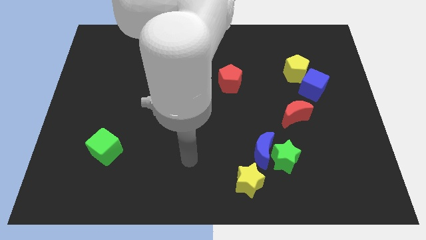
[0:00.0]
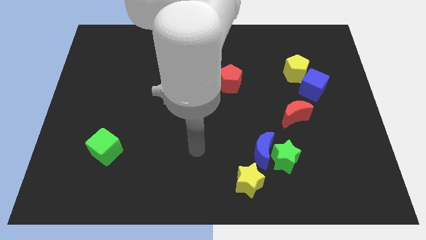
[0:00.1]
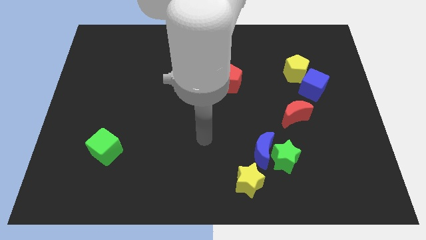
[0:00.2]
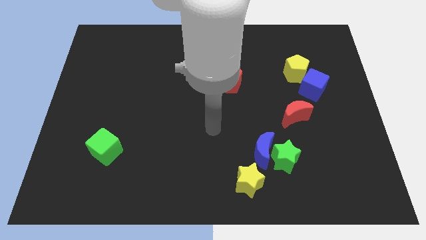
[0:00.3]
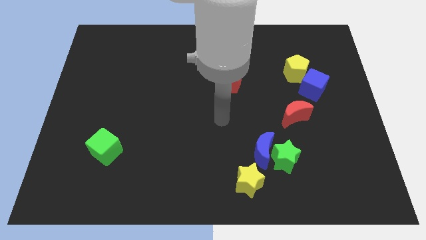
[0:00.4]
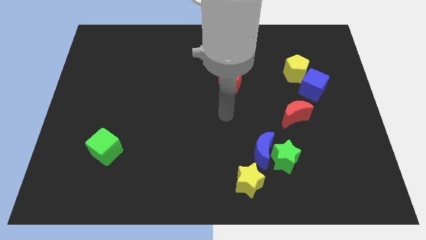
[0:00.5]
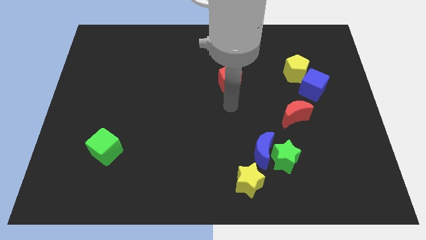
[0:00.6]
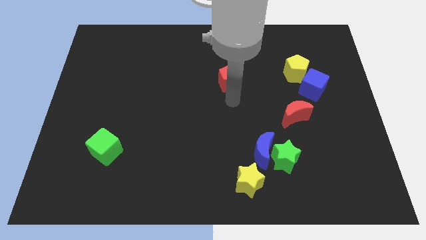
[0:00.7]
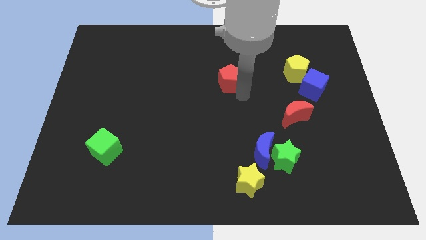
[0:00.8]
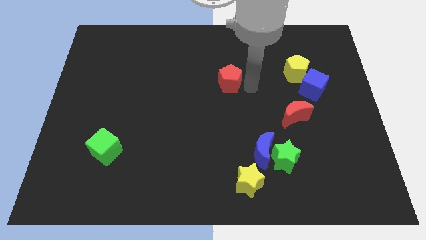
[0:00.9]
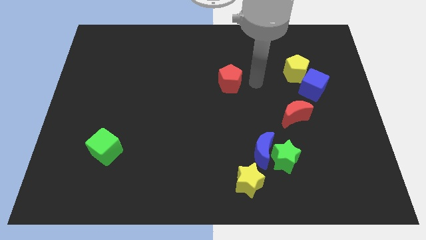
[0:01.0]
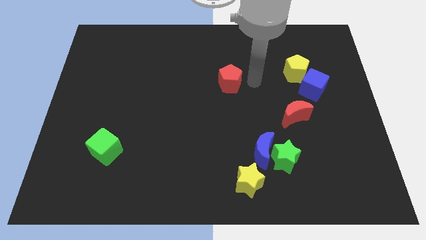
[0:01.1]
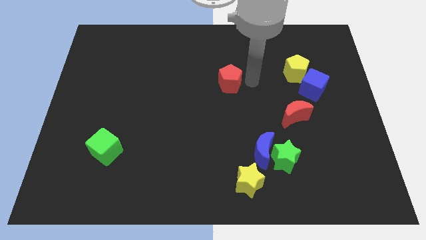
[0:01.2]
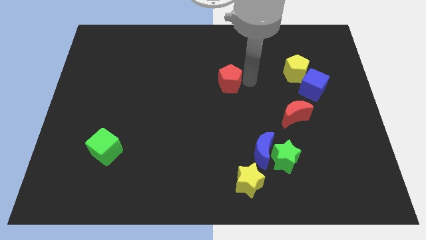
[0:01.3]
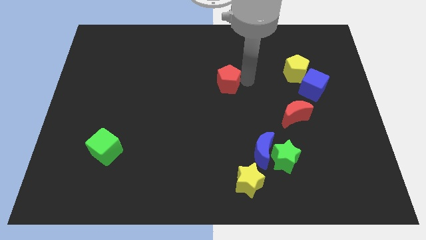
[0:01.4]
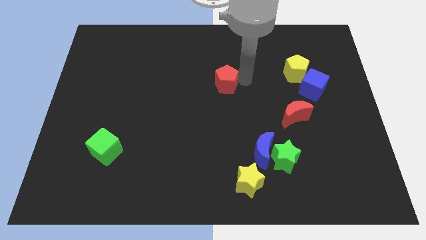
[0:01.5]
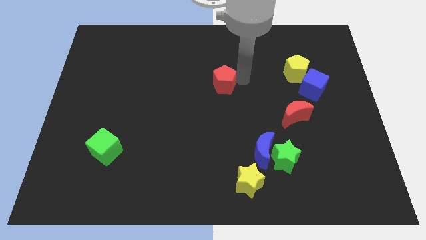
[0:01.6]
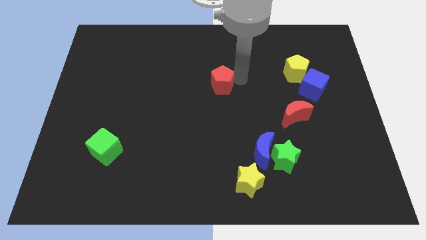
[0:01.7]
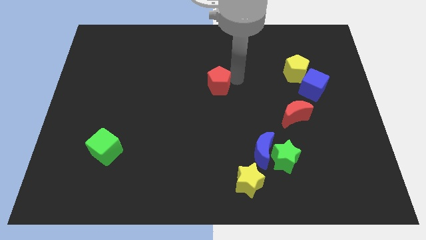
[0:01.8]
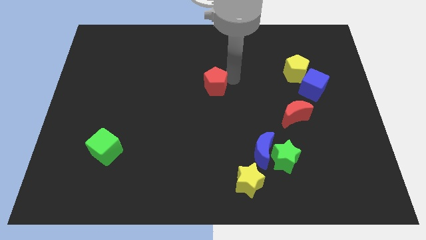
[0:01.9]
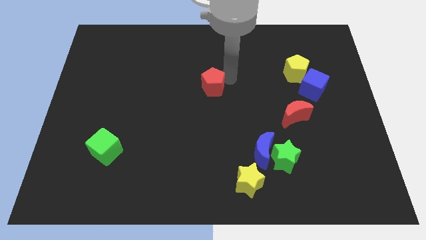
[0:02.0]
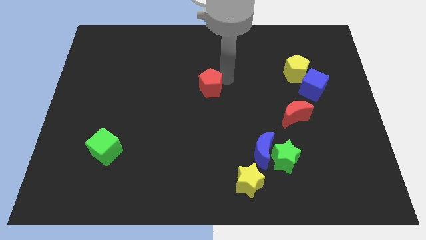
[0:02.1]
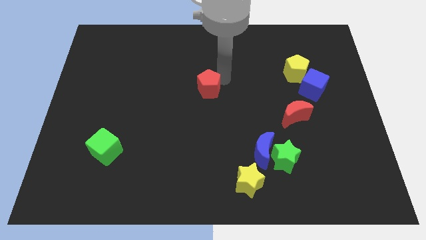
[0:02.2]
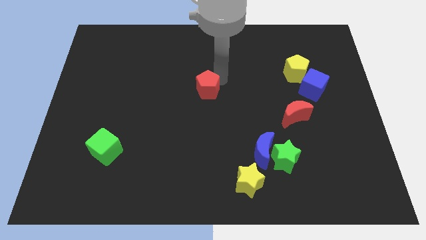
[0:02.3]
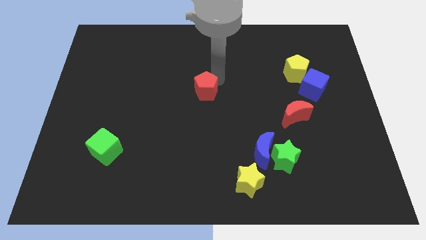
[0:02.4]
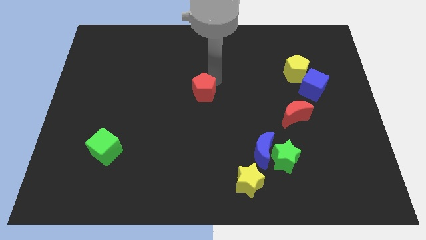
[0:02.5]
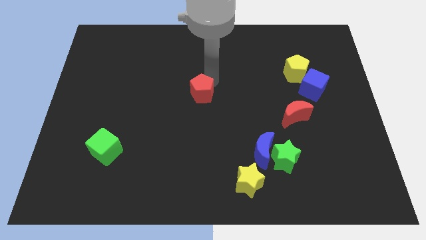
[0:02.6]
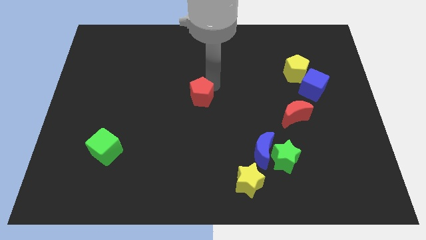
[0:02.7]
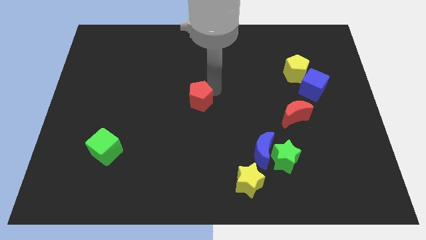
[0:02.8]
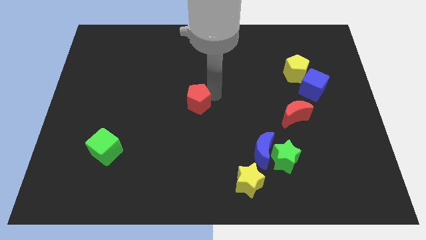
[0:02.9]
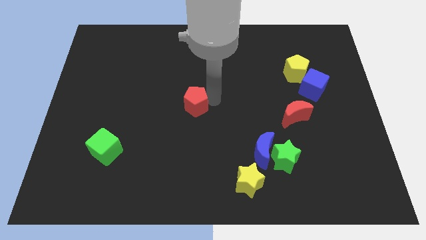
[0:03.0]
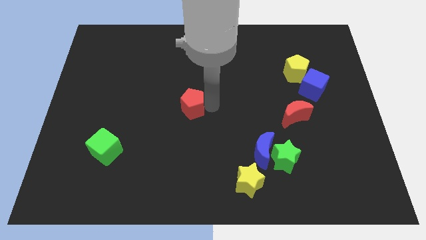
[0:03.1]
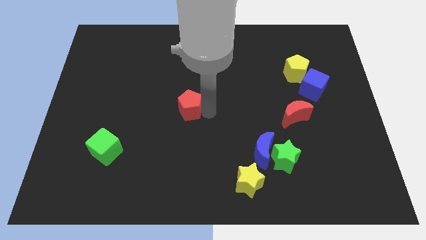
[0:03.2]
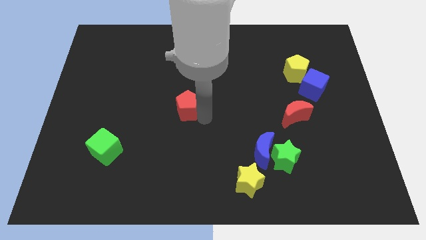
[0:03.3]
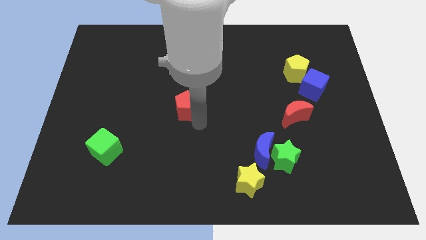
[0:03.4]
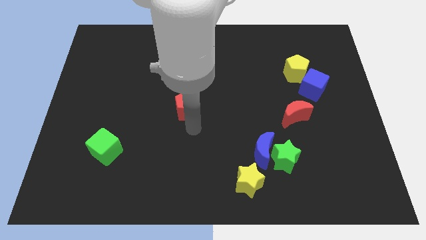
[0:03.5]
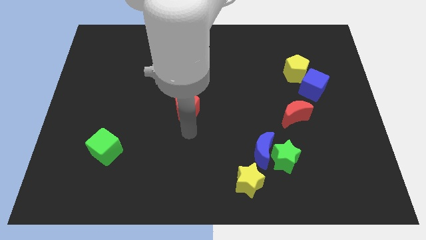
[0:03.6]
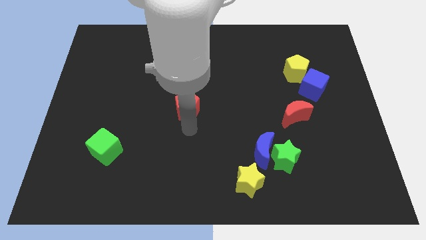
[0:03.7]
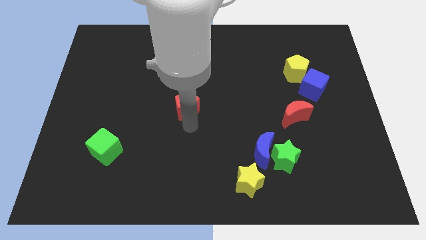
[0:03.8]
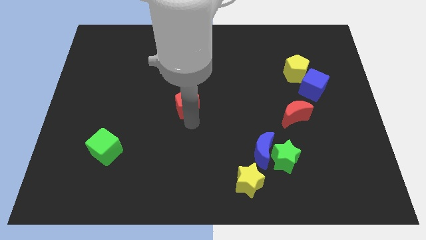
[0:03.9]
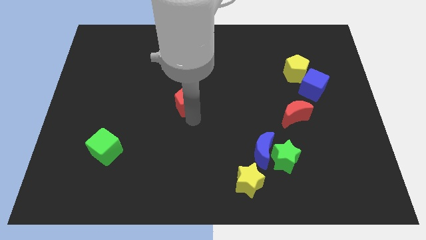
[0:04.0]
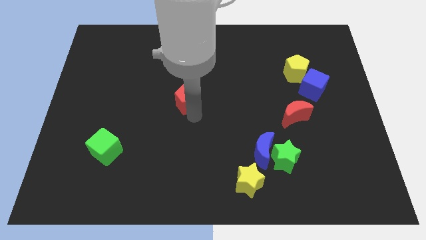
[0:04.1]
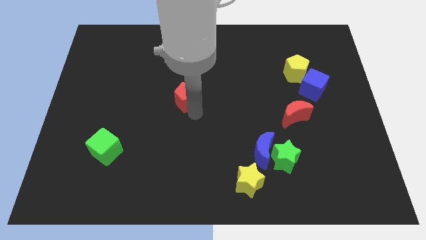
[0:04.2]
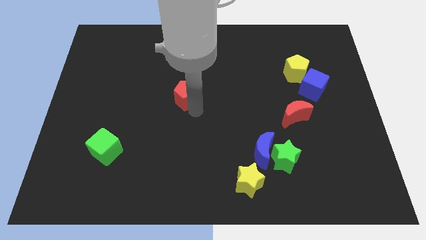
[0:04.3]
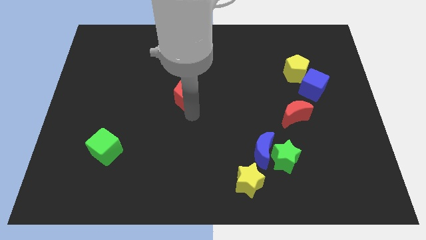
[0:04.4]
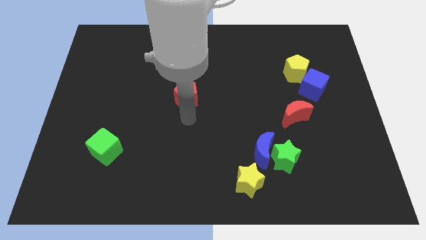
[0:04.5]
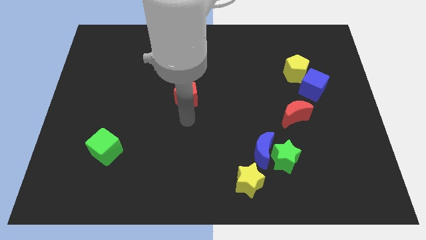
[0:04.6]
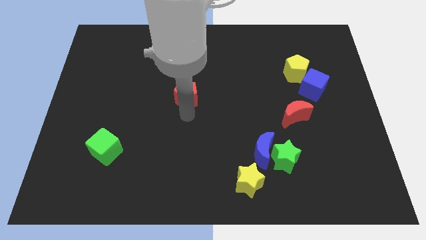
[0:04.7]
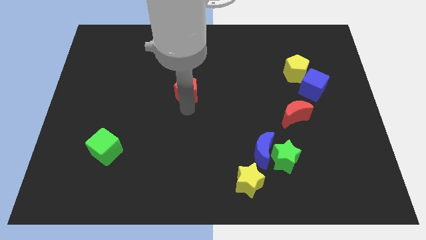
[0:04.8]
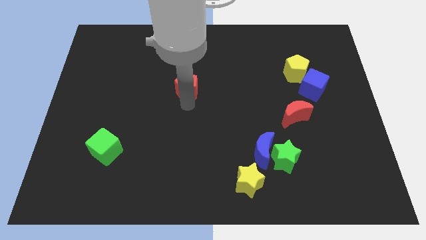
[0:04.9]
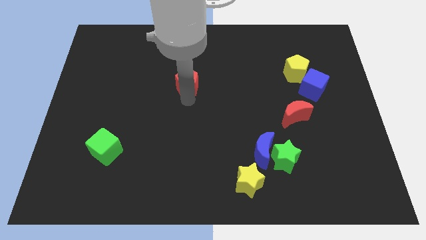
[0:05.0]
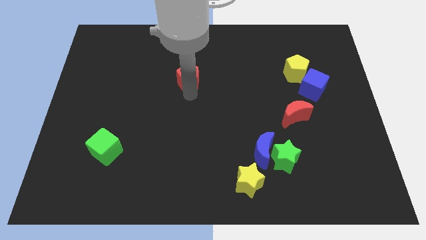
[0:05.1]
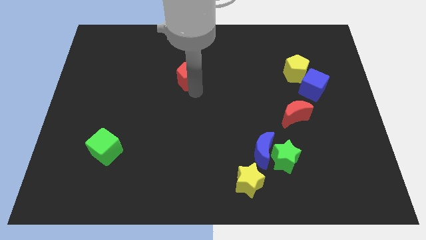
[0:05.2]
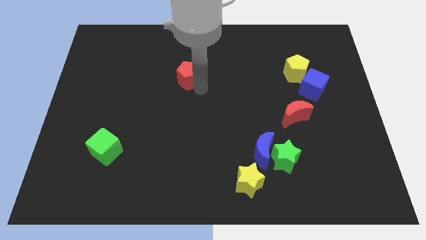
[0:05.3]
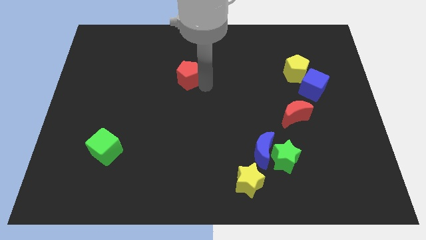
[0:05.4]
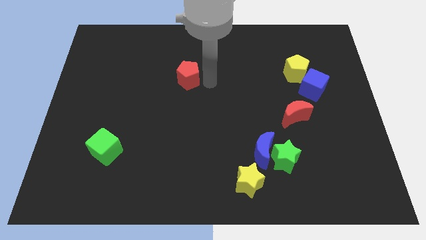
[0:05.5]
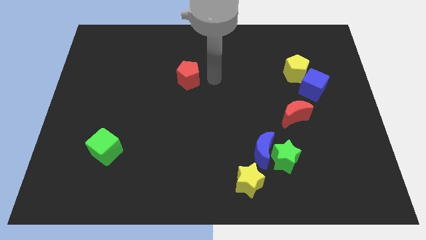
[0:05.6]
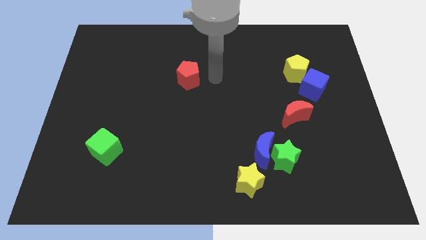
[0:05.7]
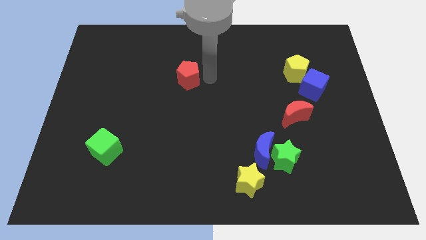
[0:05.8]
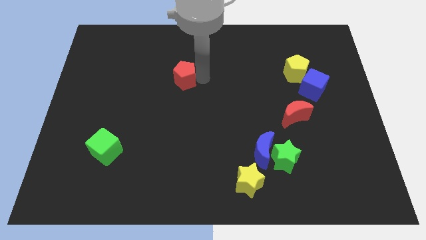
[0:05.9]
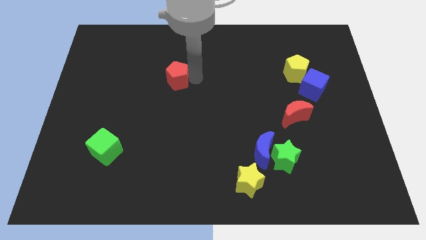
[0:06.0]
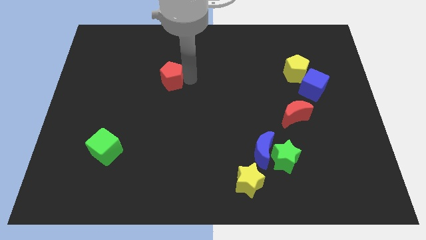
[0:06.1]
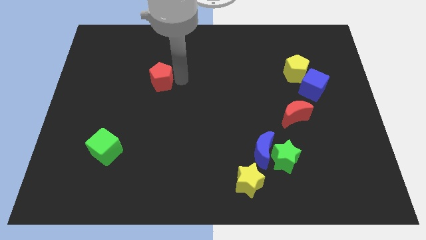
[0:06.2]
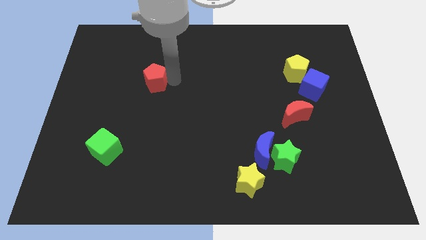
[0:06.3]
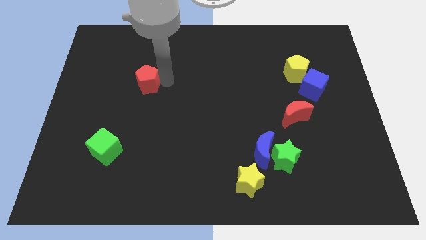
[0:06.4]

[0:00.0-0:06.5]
push the red pentagon to the left

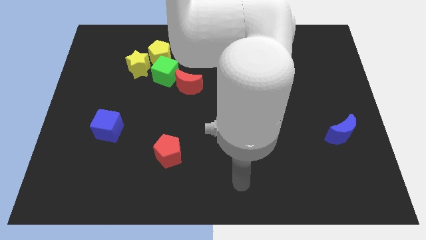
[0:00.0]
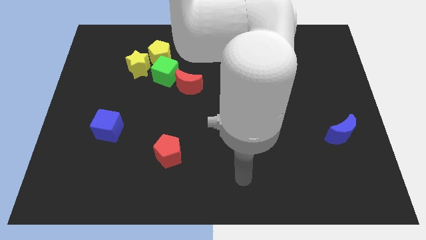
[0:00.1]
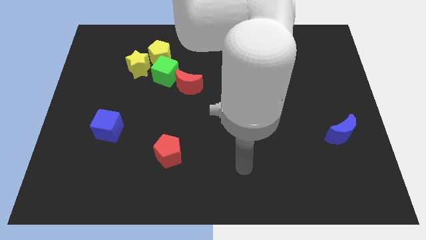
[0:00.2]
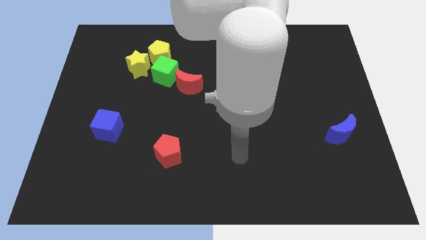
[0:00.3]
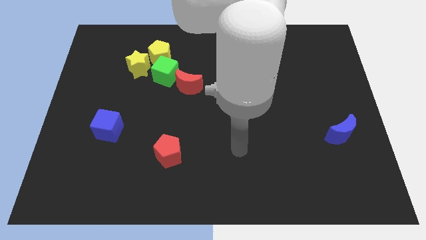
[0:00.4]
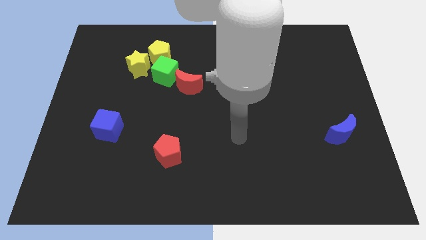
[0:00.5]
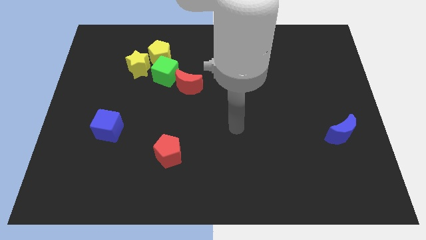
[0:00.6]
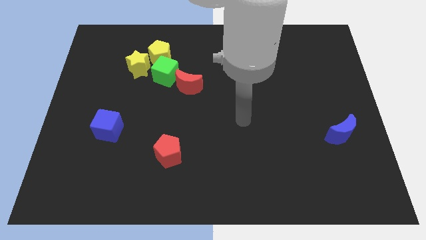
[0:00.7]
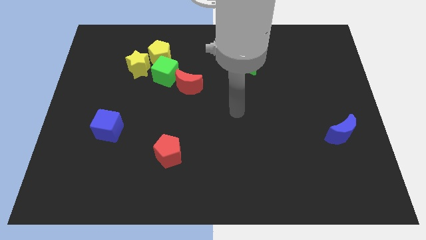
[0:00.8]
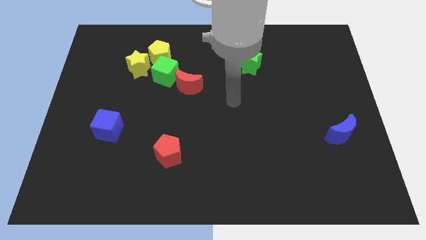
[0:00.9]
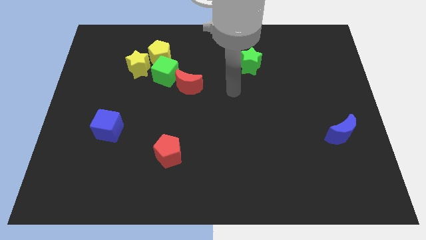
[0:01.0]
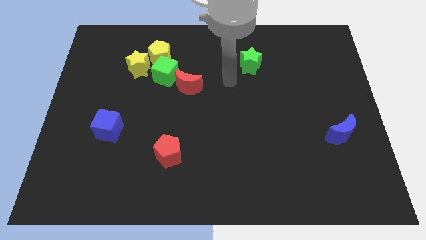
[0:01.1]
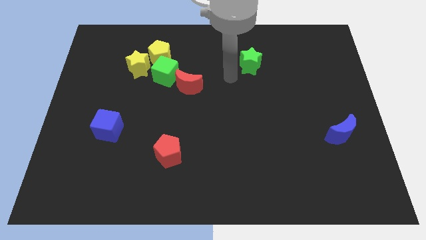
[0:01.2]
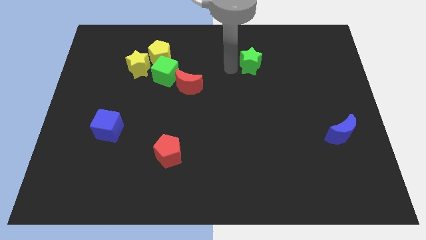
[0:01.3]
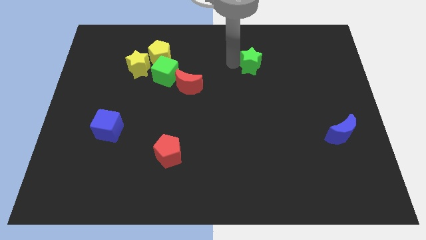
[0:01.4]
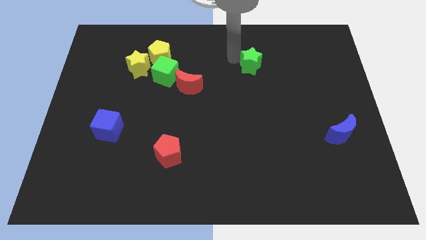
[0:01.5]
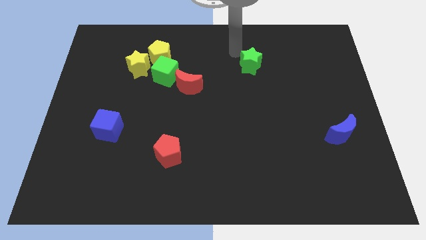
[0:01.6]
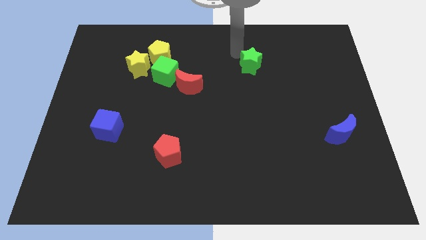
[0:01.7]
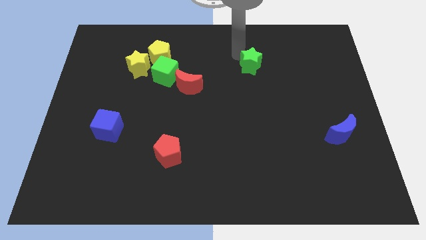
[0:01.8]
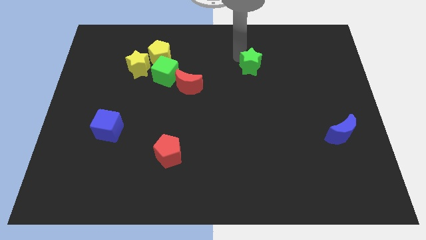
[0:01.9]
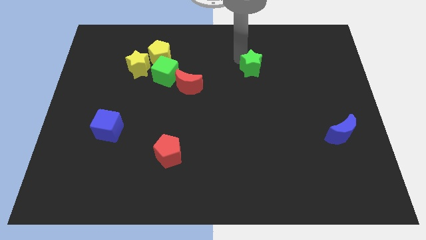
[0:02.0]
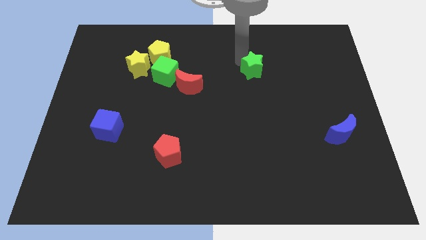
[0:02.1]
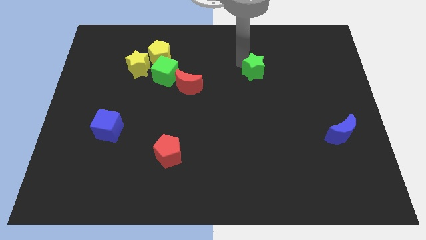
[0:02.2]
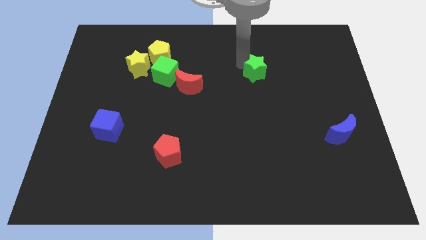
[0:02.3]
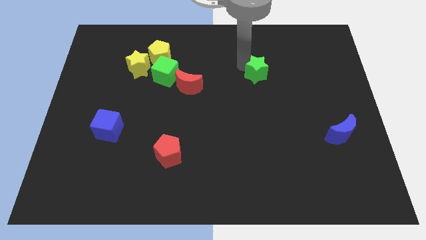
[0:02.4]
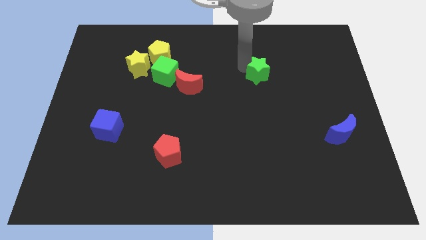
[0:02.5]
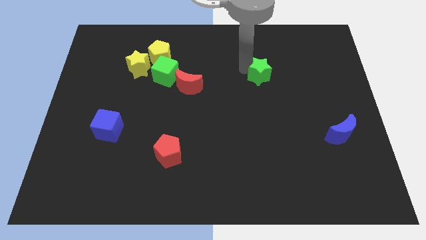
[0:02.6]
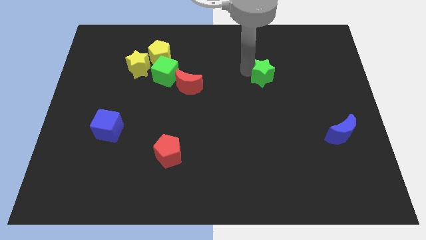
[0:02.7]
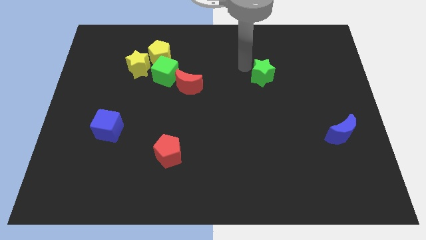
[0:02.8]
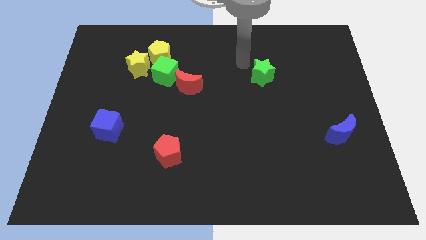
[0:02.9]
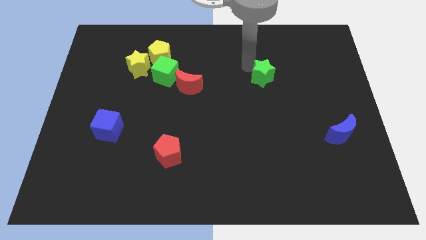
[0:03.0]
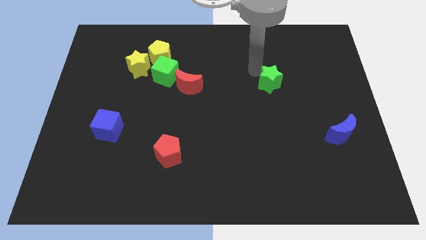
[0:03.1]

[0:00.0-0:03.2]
slightly move the green star downwards and then right
